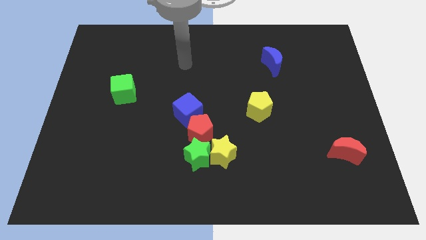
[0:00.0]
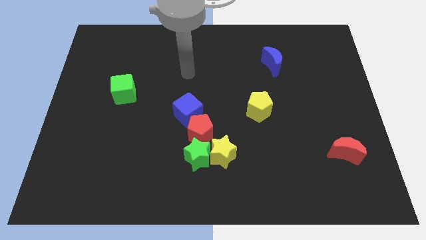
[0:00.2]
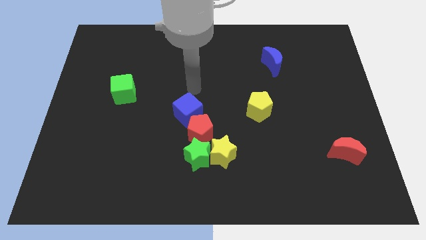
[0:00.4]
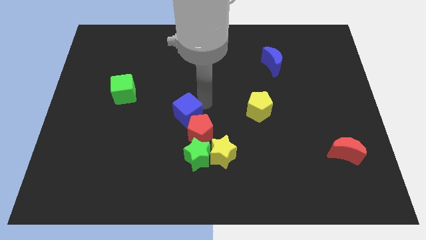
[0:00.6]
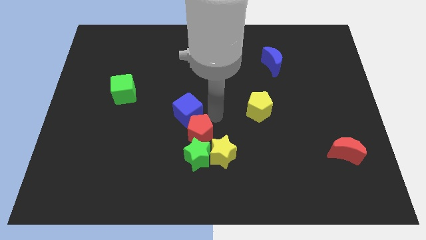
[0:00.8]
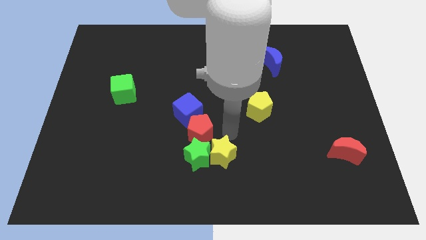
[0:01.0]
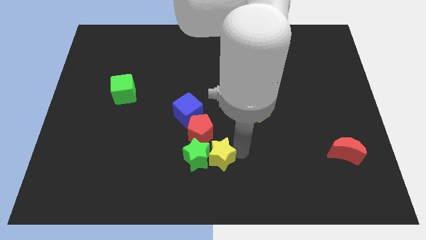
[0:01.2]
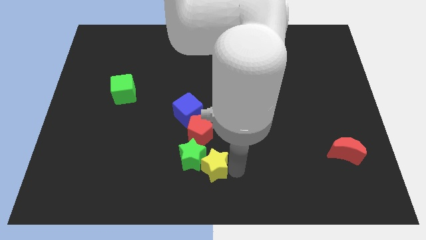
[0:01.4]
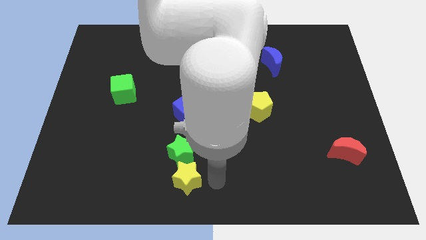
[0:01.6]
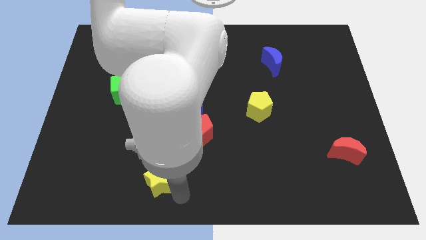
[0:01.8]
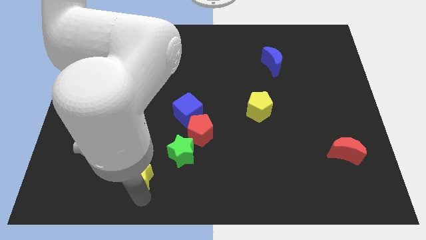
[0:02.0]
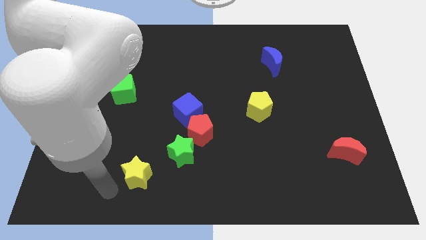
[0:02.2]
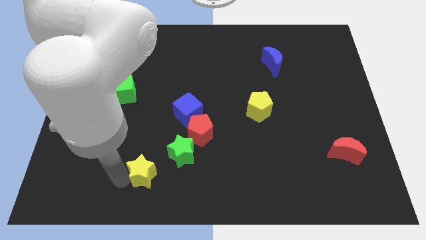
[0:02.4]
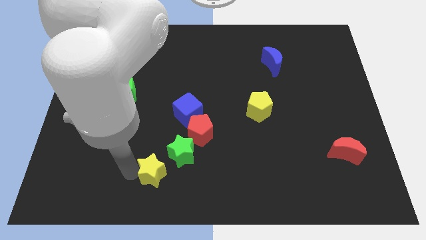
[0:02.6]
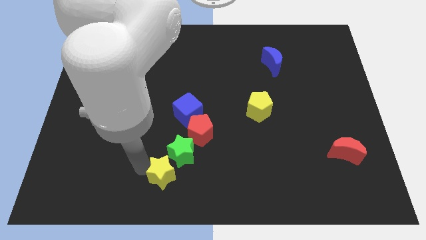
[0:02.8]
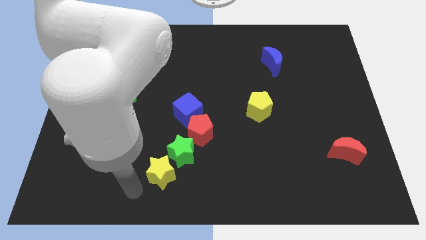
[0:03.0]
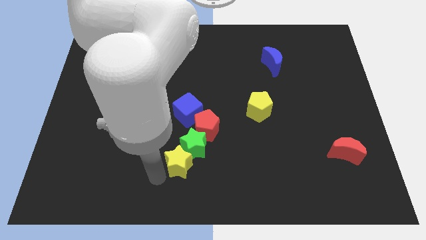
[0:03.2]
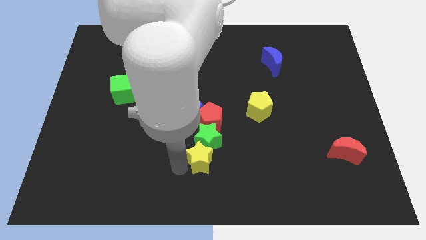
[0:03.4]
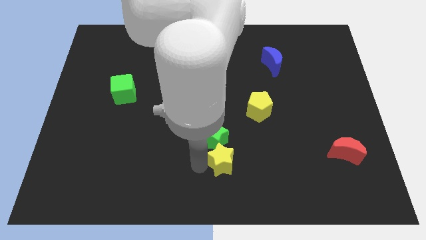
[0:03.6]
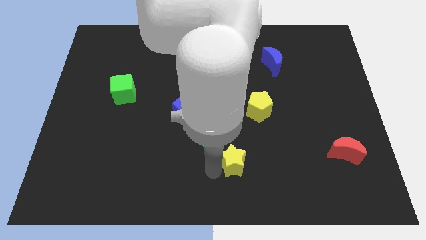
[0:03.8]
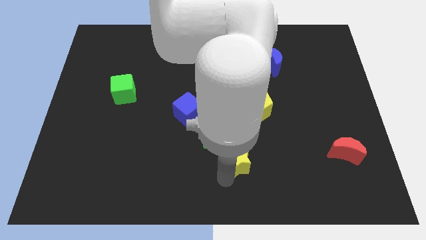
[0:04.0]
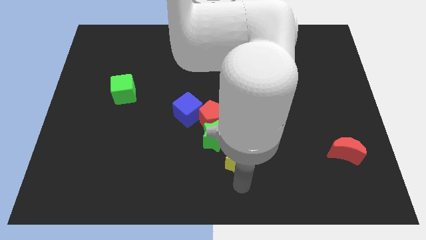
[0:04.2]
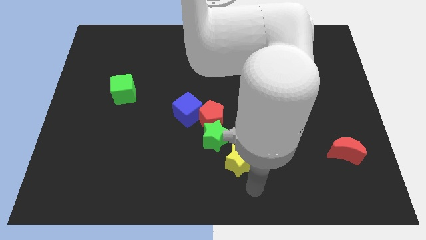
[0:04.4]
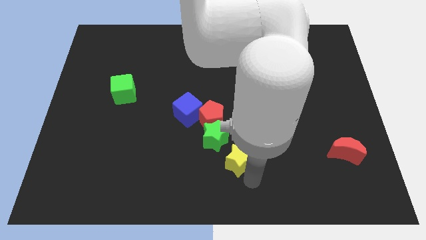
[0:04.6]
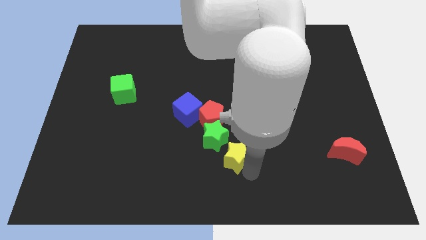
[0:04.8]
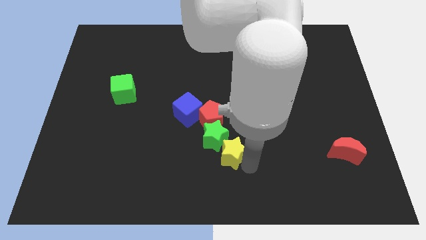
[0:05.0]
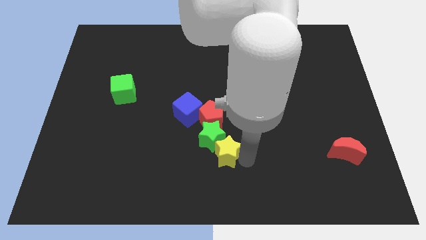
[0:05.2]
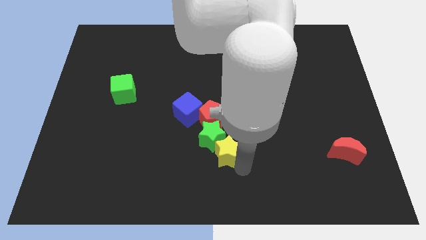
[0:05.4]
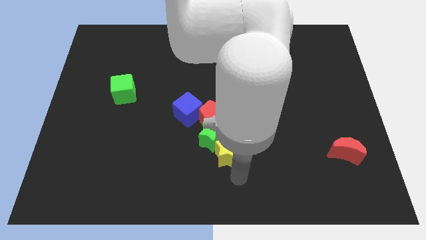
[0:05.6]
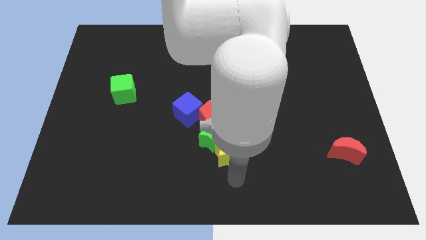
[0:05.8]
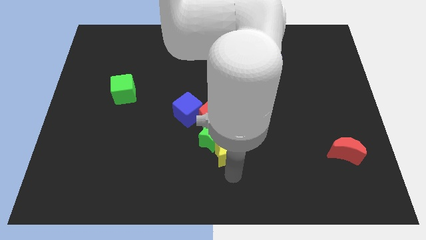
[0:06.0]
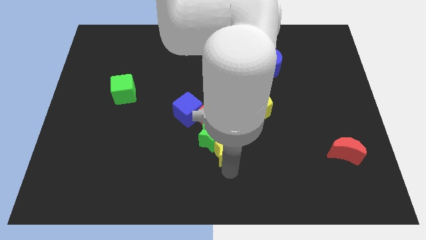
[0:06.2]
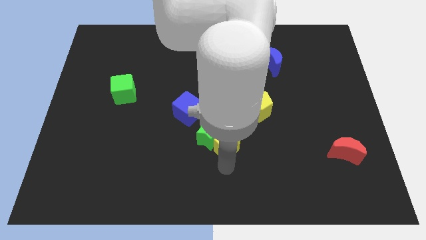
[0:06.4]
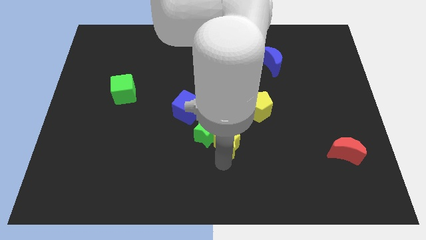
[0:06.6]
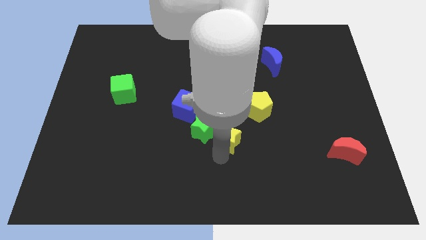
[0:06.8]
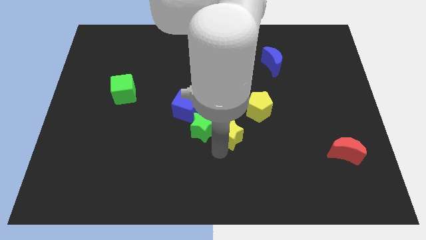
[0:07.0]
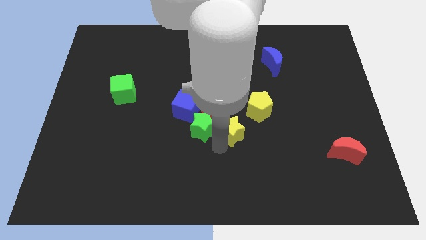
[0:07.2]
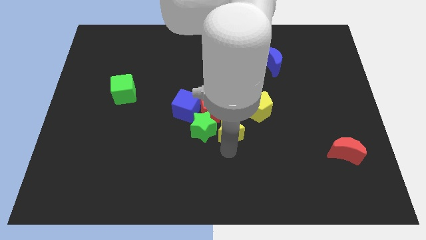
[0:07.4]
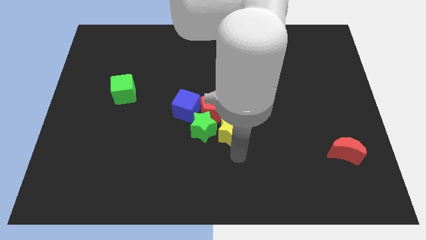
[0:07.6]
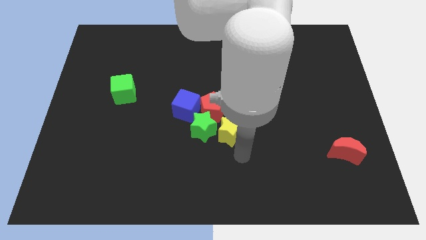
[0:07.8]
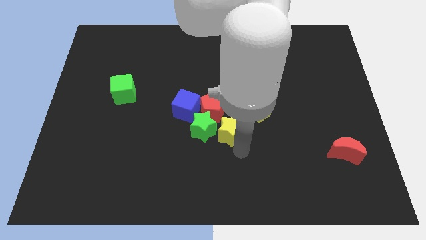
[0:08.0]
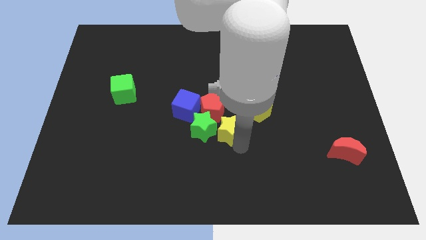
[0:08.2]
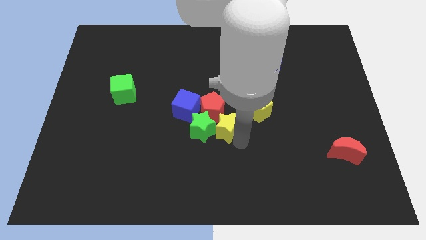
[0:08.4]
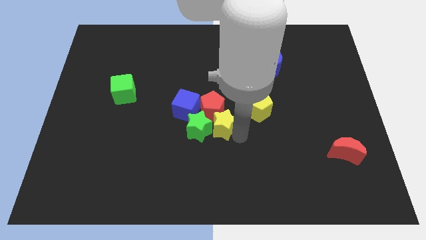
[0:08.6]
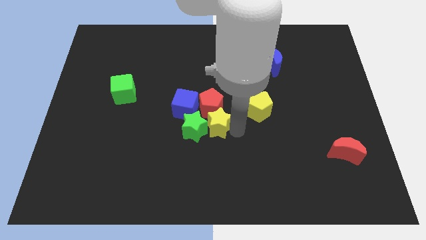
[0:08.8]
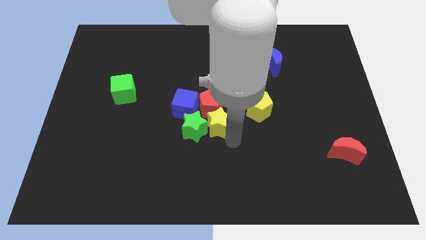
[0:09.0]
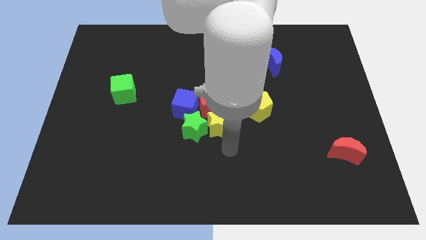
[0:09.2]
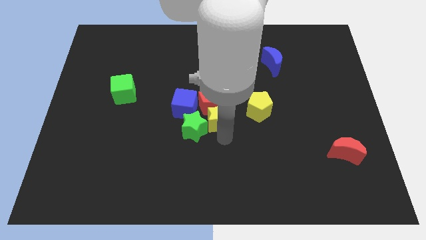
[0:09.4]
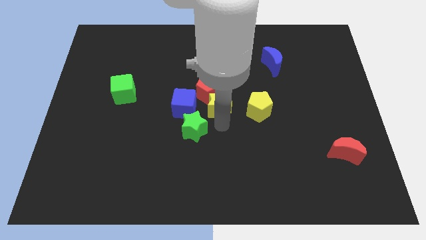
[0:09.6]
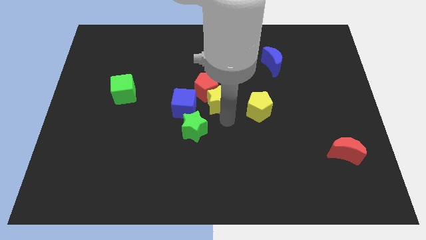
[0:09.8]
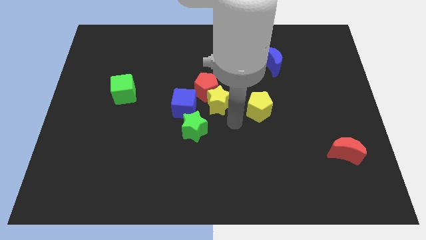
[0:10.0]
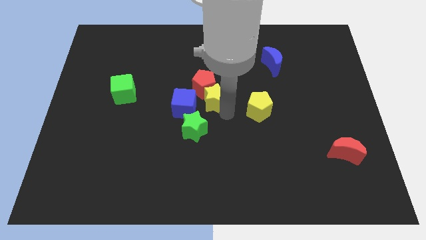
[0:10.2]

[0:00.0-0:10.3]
slide the yellow star to the top right of the blue cube

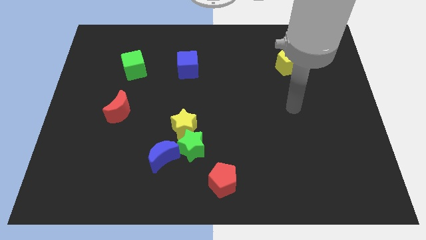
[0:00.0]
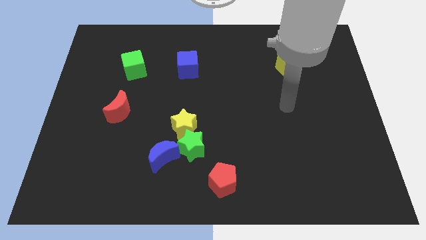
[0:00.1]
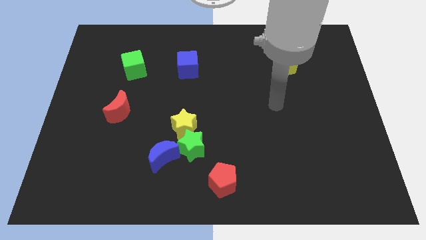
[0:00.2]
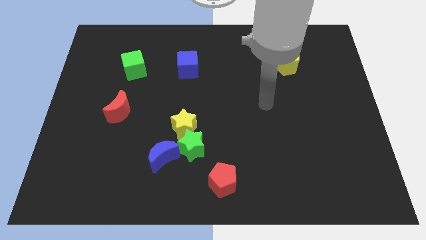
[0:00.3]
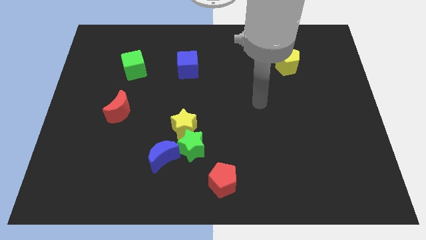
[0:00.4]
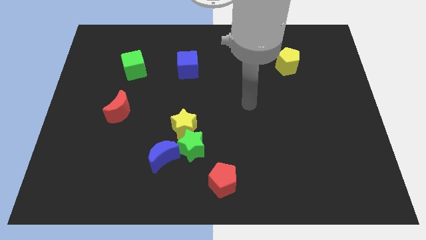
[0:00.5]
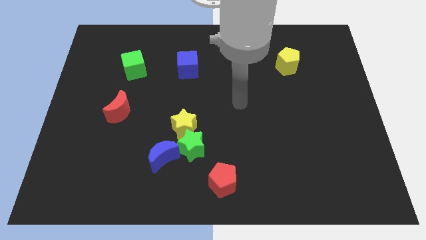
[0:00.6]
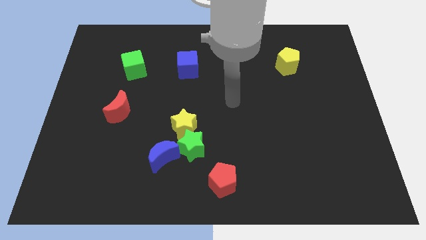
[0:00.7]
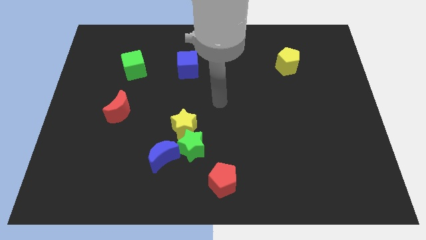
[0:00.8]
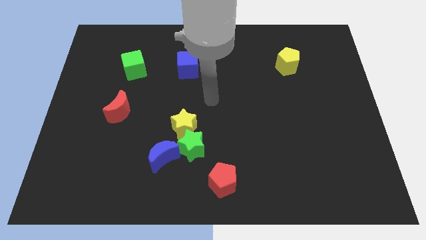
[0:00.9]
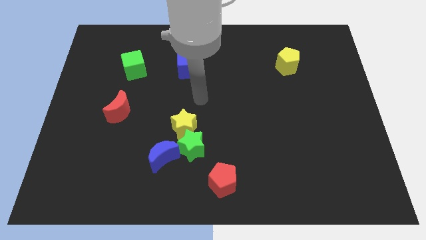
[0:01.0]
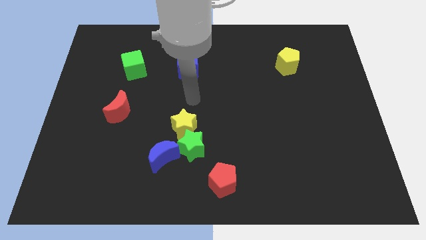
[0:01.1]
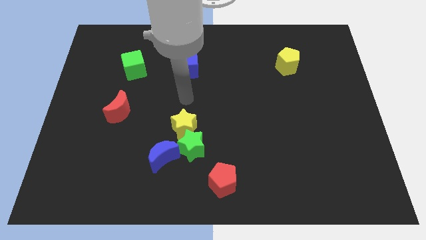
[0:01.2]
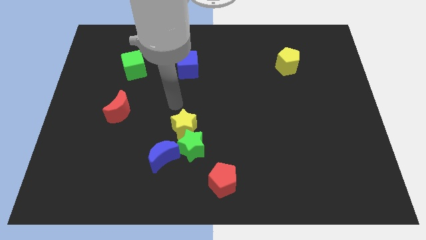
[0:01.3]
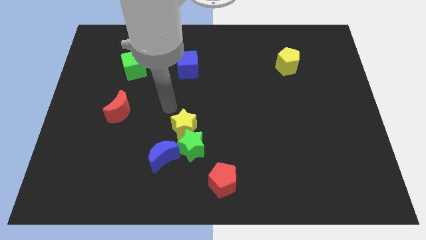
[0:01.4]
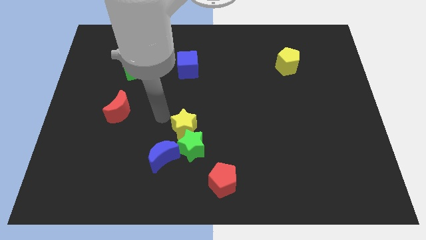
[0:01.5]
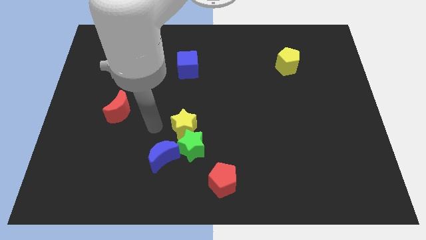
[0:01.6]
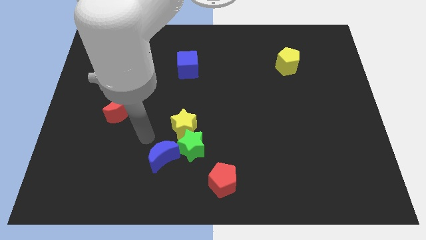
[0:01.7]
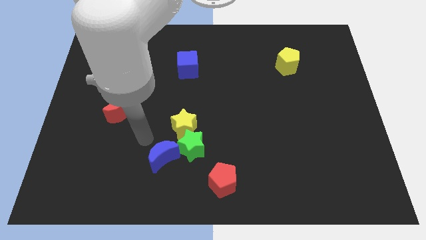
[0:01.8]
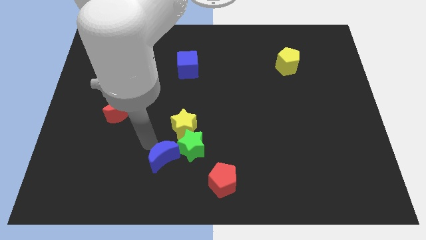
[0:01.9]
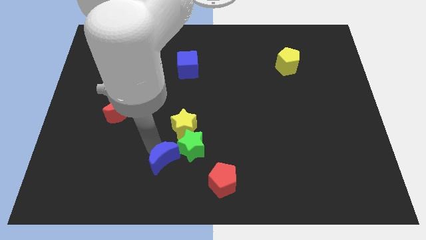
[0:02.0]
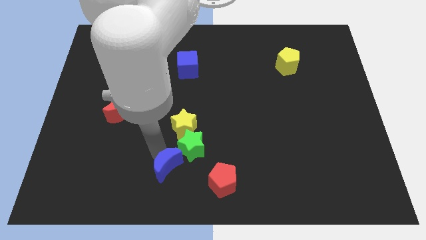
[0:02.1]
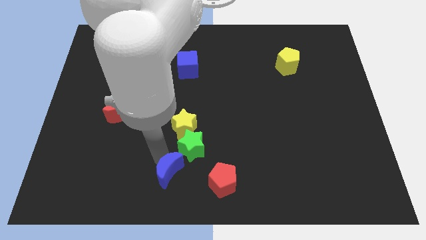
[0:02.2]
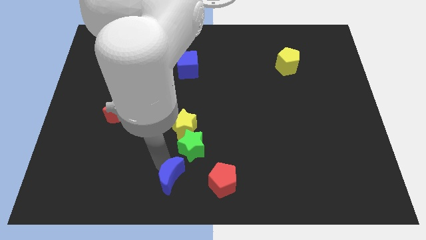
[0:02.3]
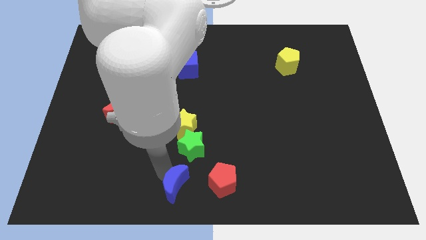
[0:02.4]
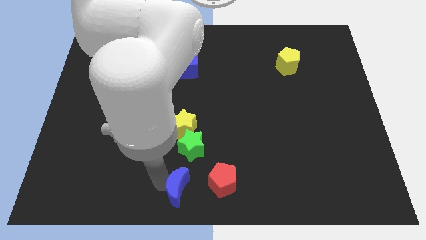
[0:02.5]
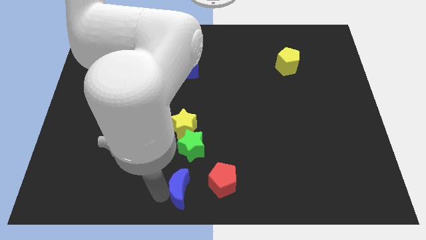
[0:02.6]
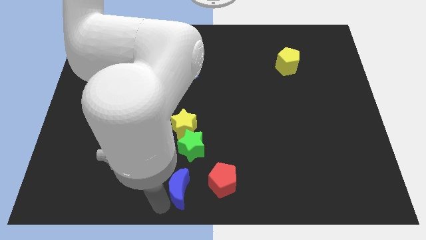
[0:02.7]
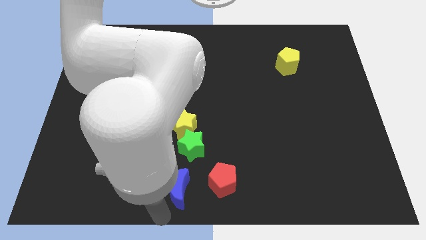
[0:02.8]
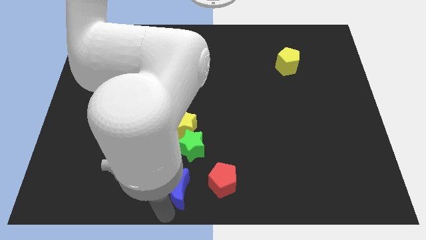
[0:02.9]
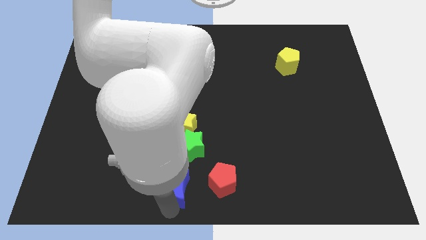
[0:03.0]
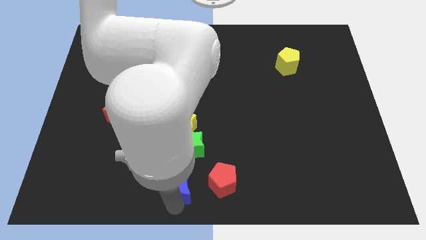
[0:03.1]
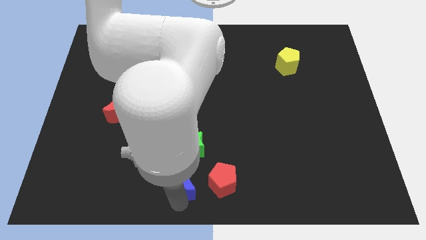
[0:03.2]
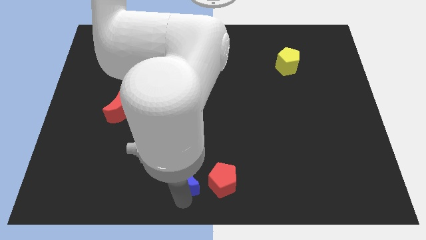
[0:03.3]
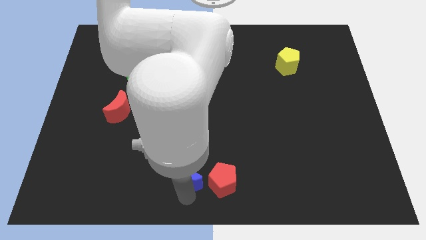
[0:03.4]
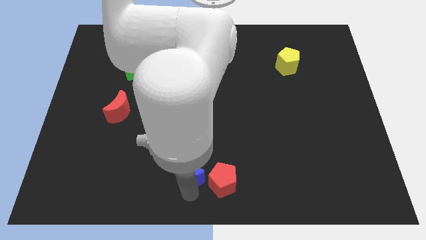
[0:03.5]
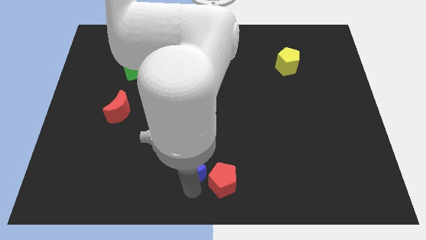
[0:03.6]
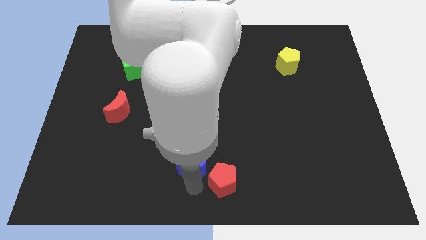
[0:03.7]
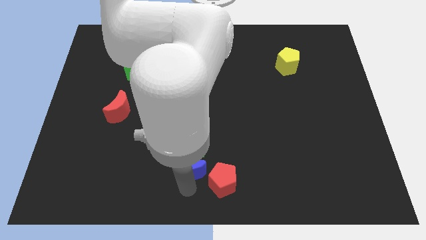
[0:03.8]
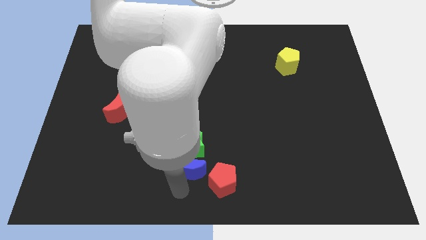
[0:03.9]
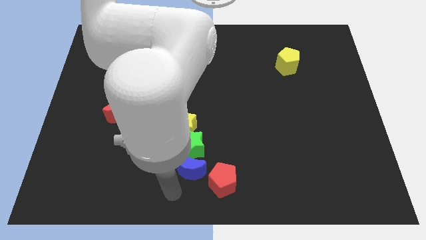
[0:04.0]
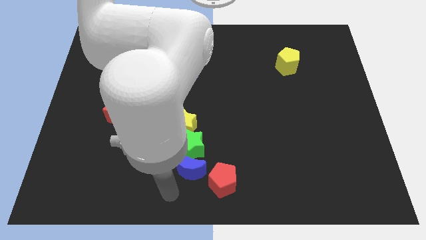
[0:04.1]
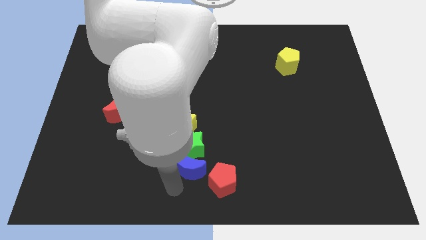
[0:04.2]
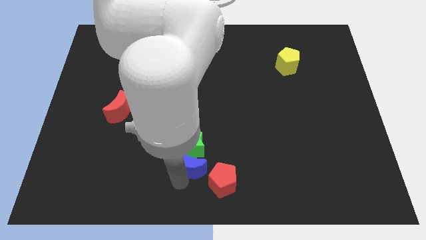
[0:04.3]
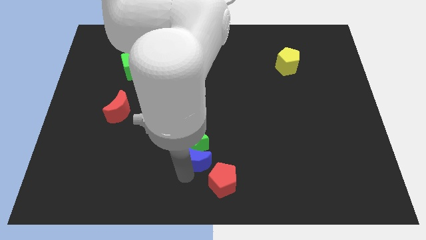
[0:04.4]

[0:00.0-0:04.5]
slide the blue moon to the bottom right side of the yellow star
